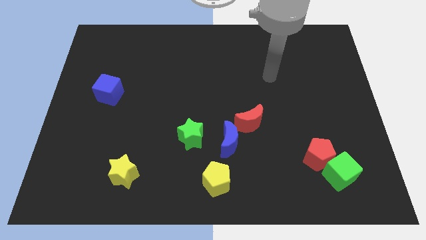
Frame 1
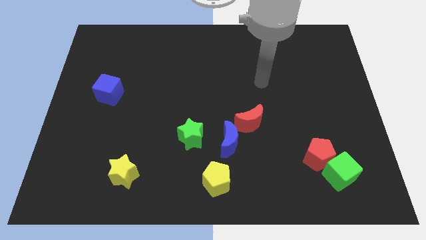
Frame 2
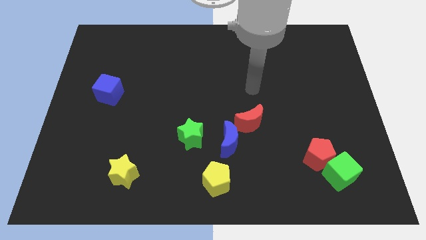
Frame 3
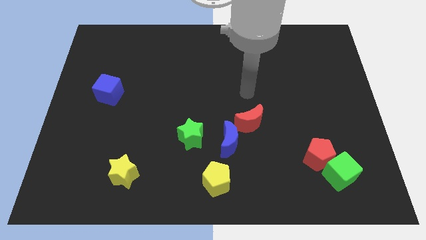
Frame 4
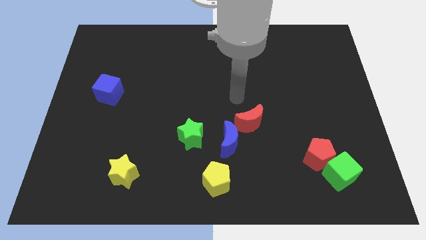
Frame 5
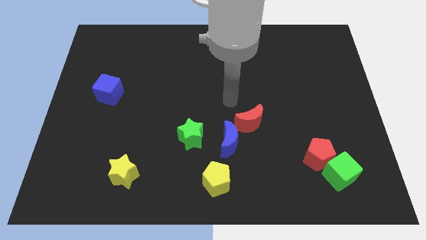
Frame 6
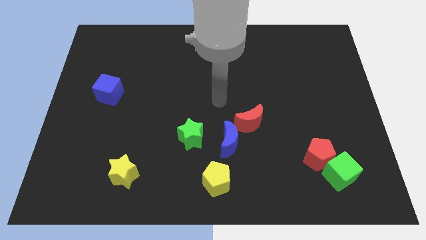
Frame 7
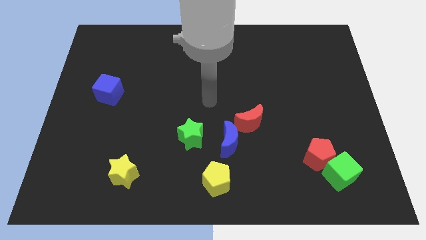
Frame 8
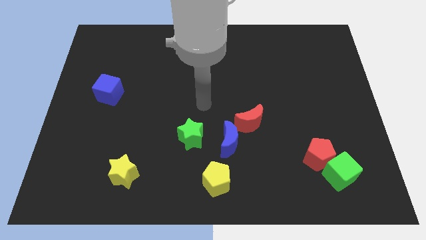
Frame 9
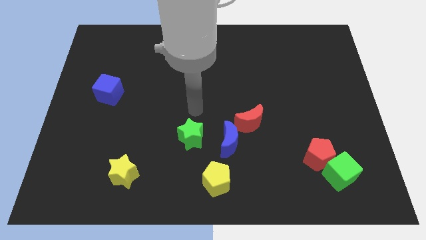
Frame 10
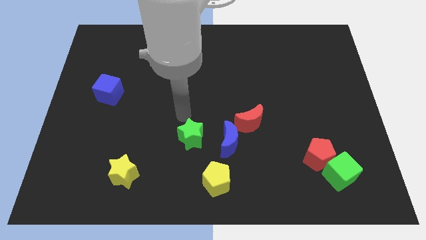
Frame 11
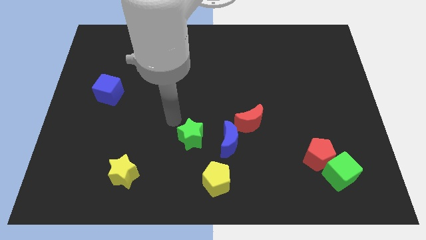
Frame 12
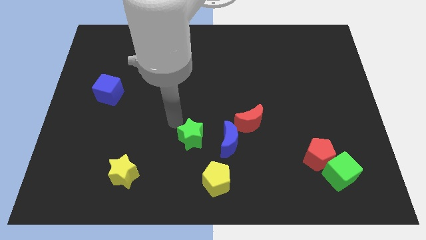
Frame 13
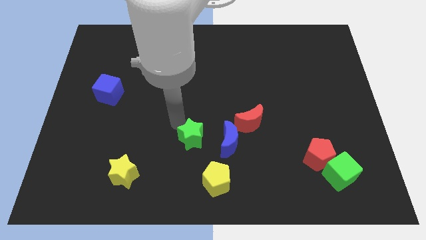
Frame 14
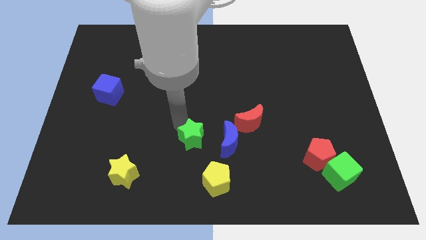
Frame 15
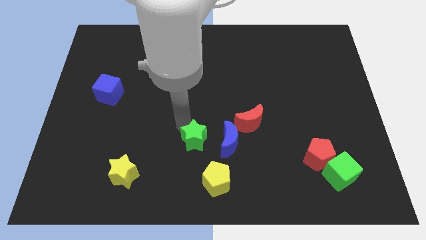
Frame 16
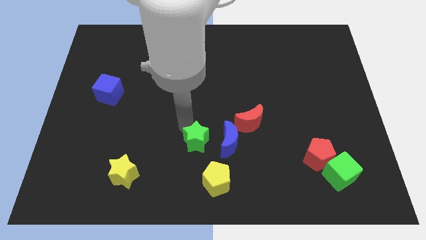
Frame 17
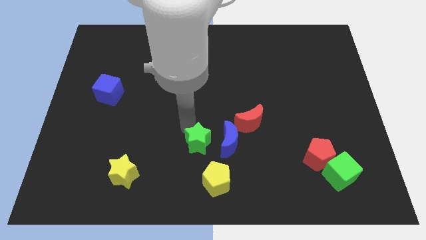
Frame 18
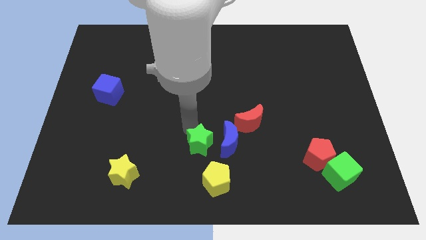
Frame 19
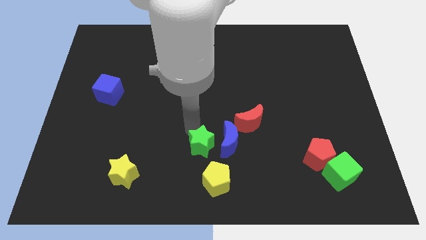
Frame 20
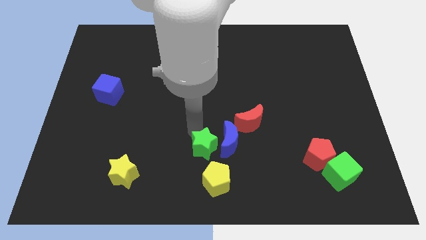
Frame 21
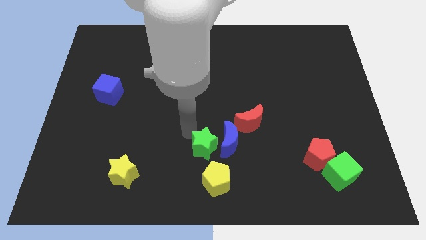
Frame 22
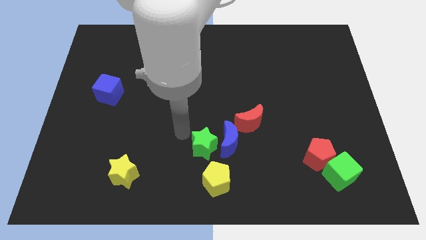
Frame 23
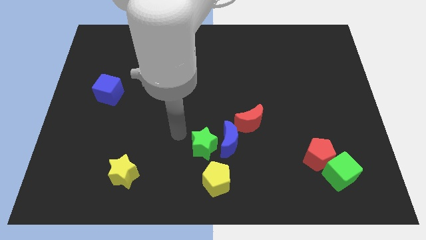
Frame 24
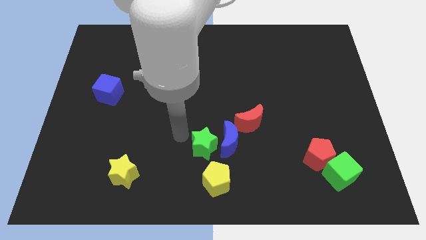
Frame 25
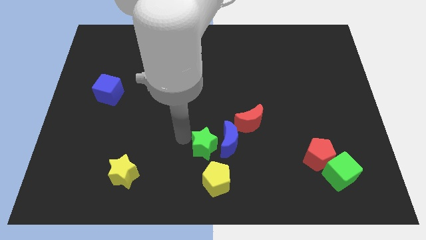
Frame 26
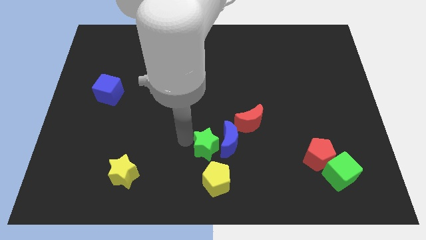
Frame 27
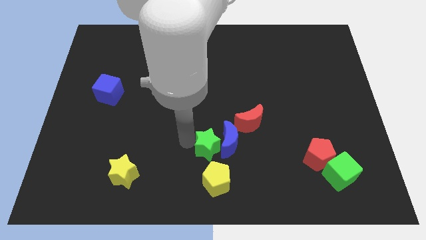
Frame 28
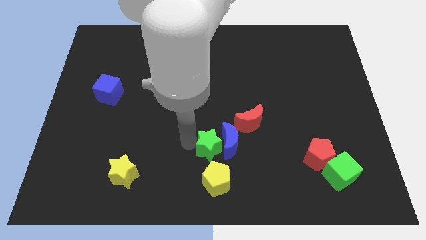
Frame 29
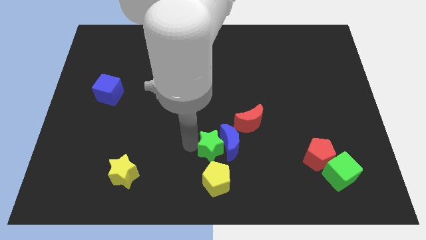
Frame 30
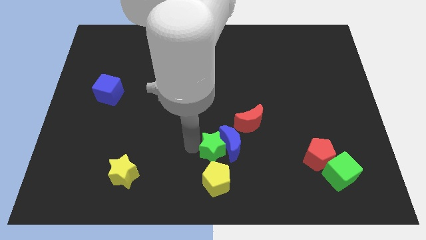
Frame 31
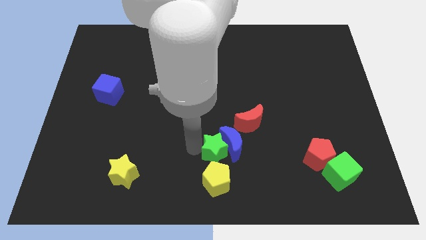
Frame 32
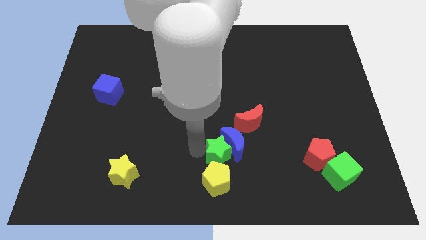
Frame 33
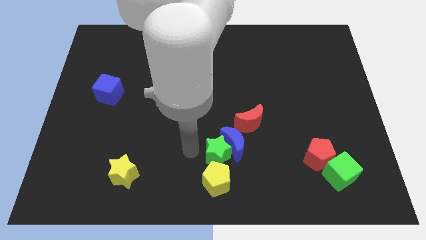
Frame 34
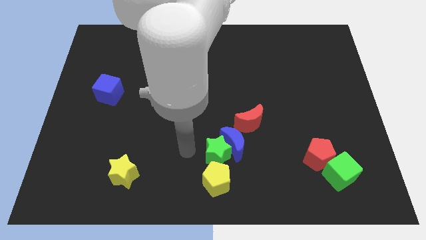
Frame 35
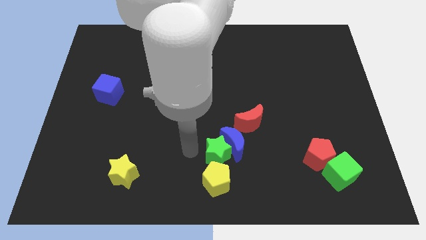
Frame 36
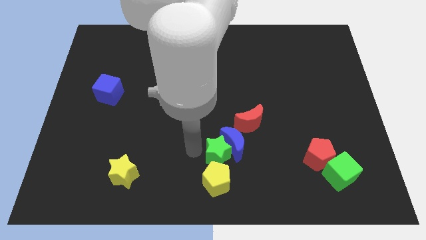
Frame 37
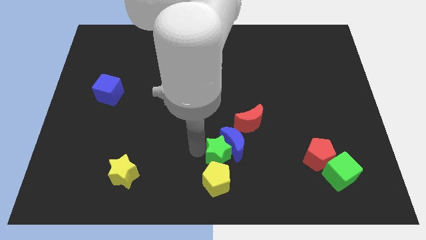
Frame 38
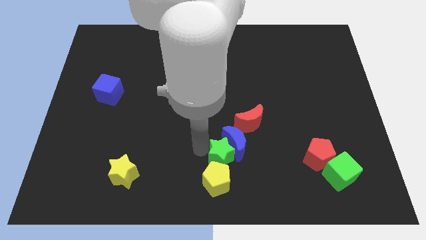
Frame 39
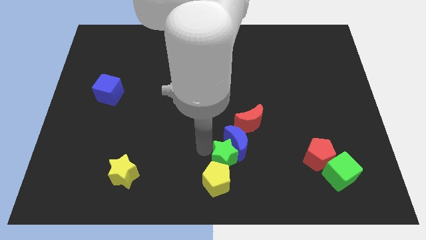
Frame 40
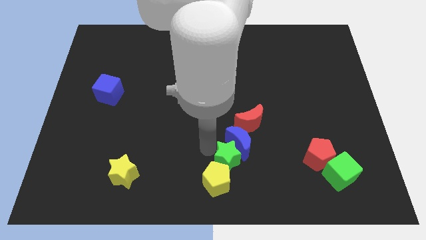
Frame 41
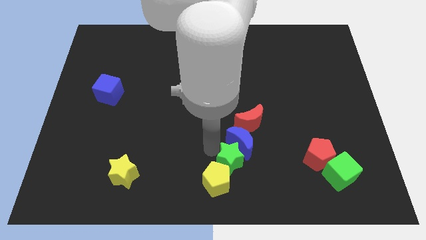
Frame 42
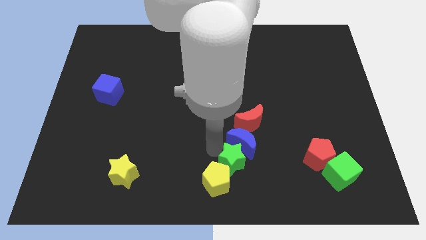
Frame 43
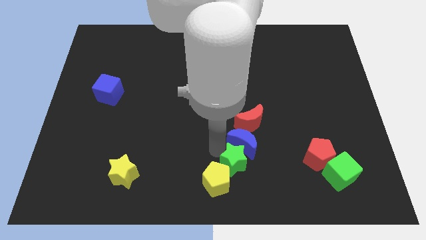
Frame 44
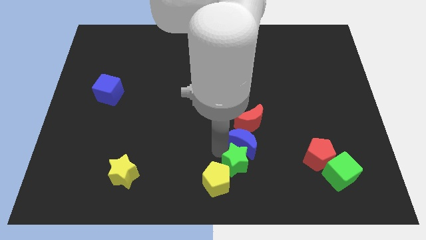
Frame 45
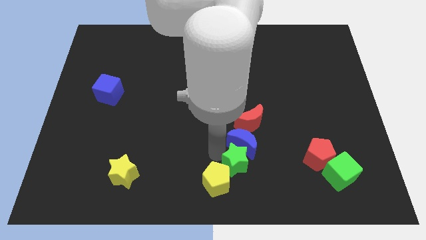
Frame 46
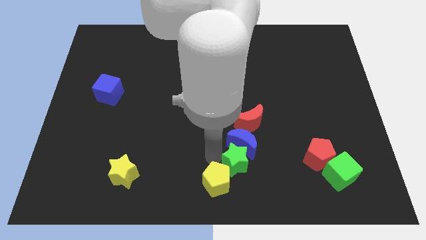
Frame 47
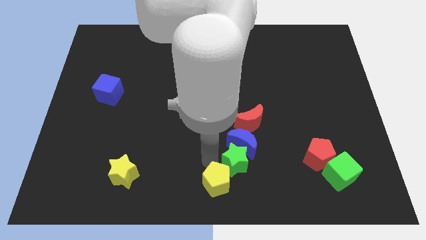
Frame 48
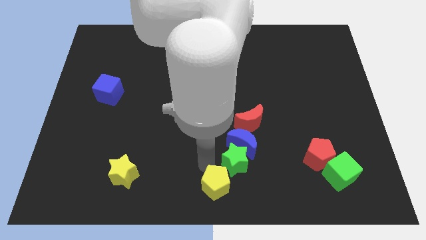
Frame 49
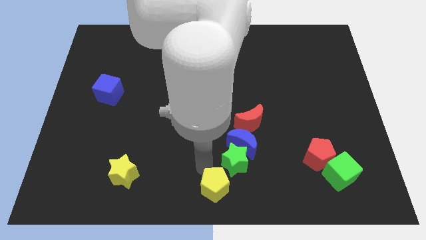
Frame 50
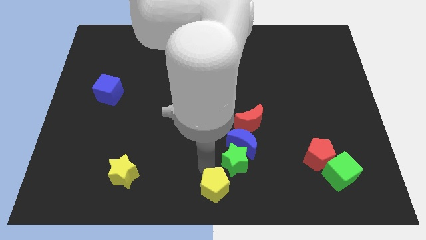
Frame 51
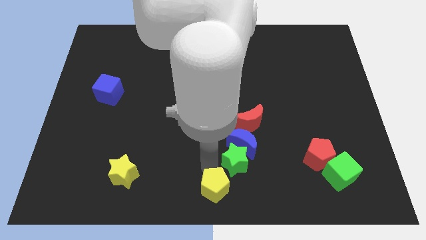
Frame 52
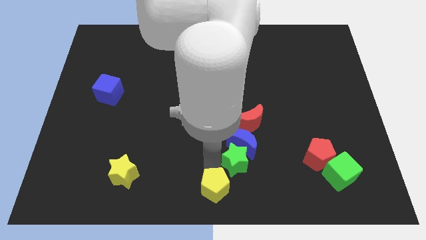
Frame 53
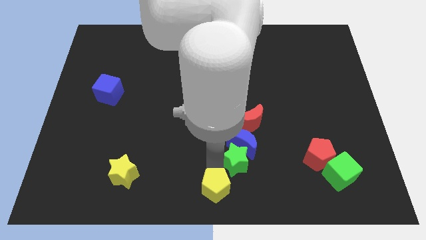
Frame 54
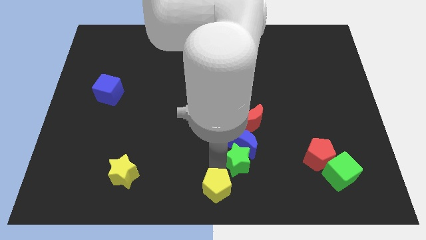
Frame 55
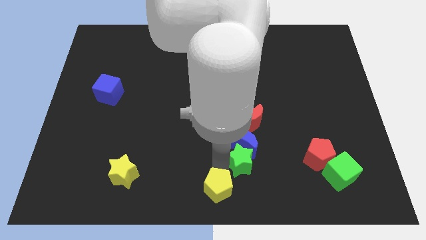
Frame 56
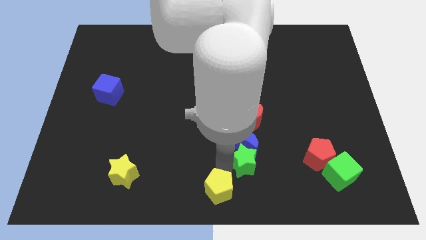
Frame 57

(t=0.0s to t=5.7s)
put the green star just left of the red pentagon
